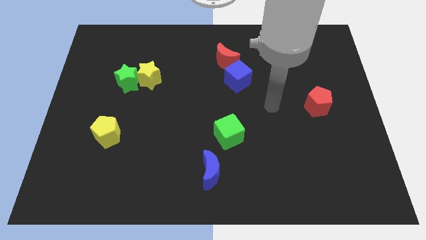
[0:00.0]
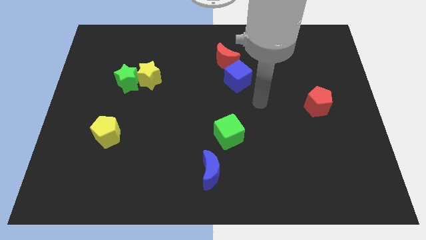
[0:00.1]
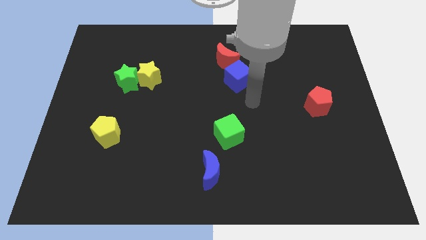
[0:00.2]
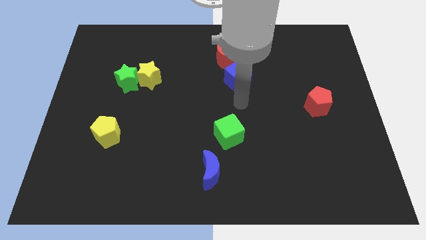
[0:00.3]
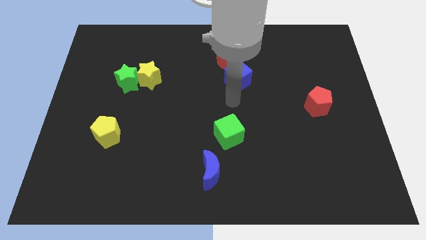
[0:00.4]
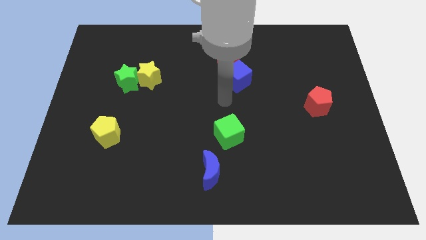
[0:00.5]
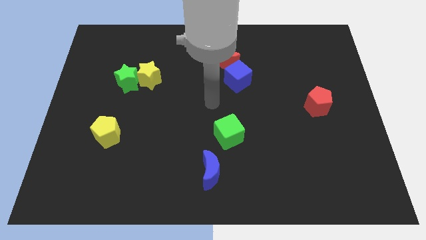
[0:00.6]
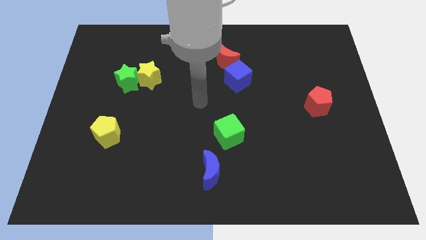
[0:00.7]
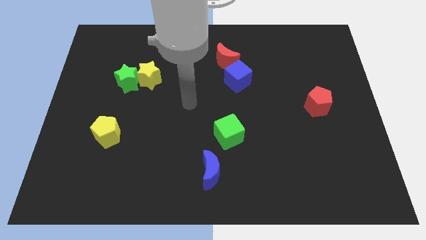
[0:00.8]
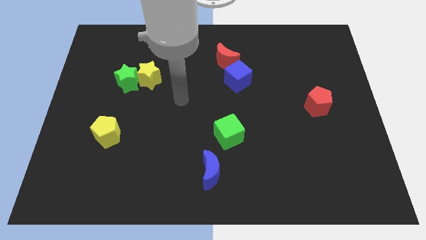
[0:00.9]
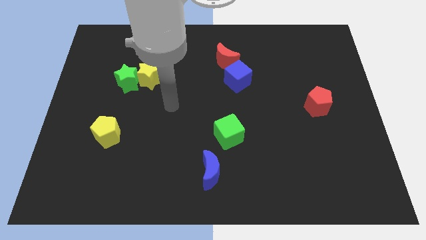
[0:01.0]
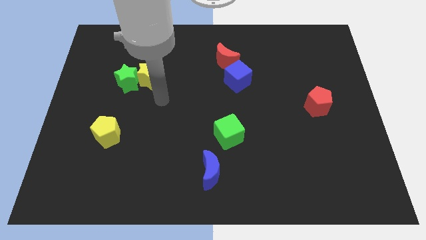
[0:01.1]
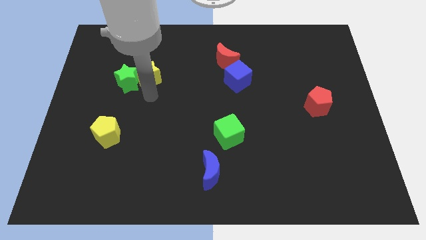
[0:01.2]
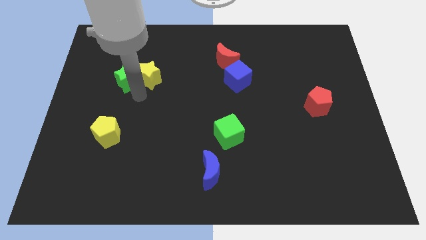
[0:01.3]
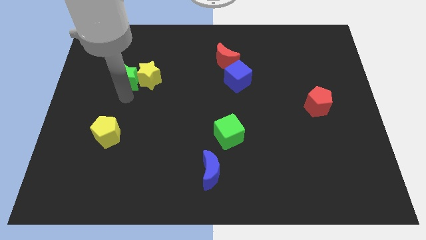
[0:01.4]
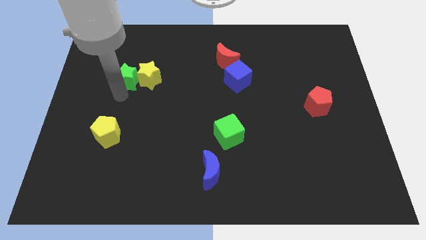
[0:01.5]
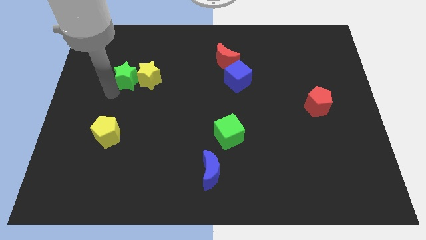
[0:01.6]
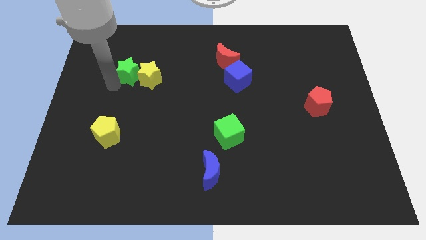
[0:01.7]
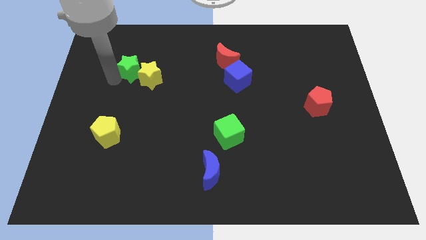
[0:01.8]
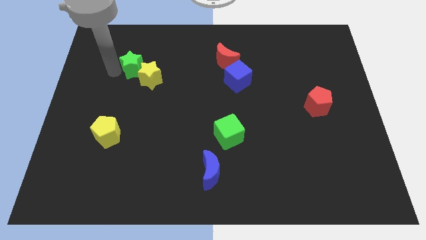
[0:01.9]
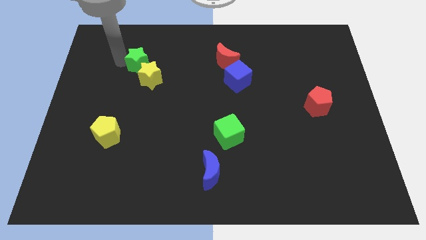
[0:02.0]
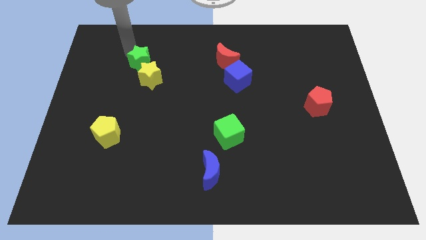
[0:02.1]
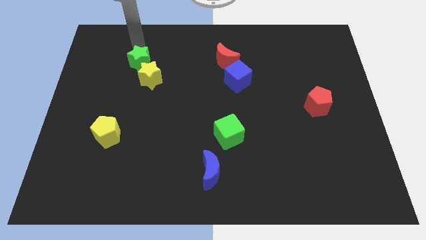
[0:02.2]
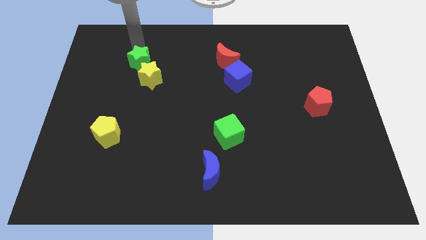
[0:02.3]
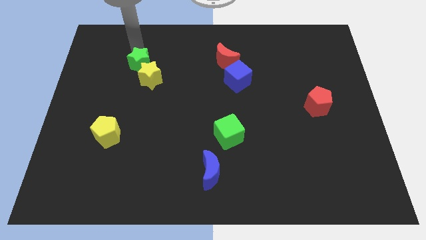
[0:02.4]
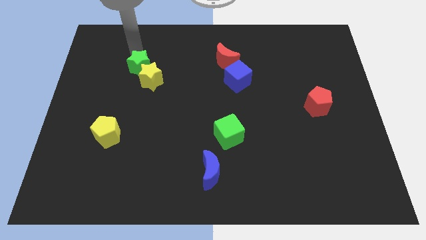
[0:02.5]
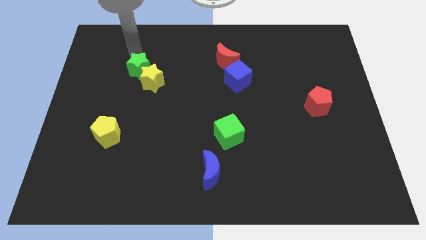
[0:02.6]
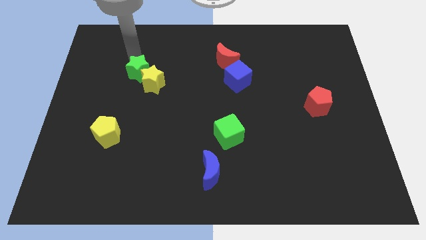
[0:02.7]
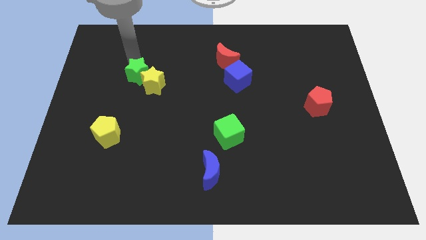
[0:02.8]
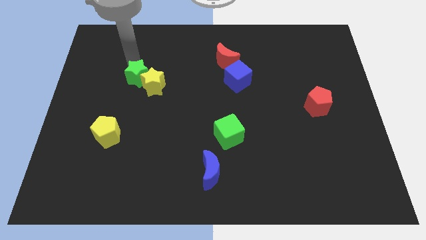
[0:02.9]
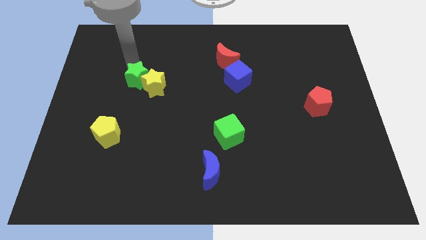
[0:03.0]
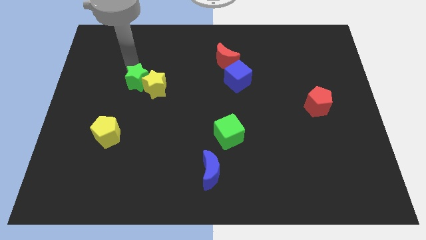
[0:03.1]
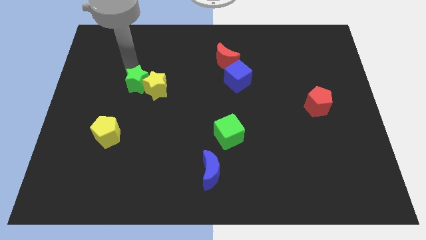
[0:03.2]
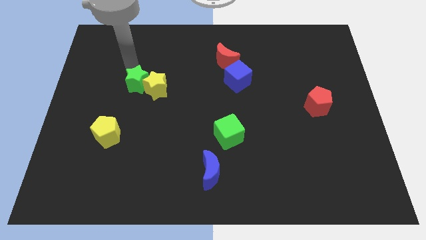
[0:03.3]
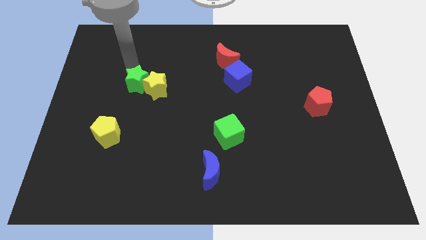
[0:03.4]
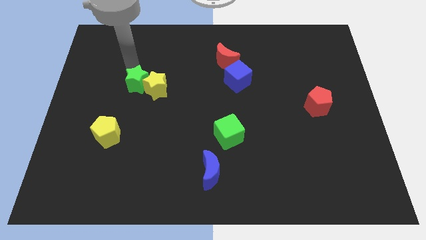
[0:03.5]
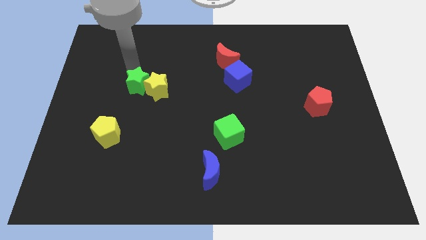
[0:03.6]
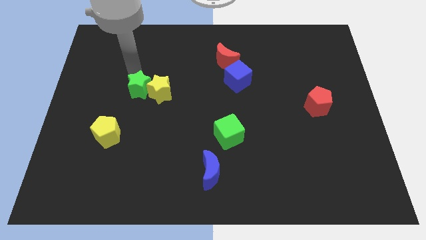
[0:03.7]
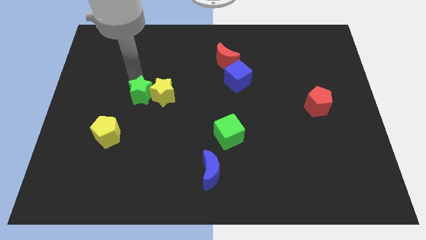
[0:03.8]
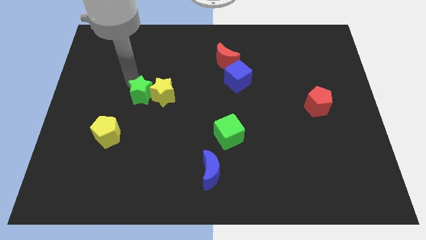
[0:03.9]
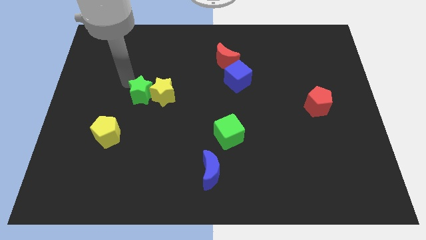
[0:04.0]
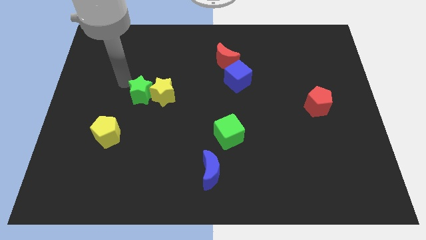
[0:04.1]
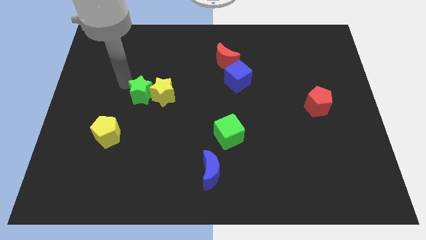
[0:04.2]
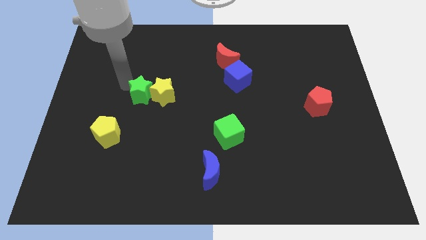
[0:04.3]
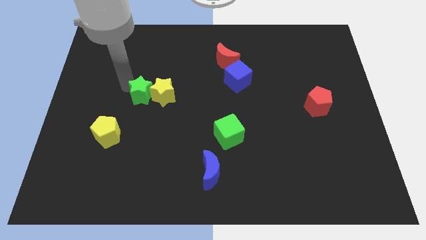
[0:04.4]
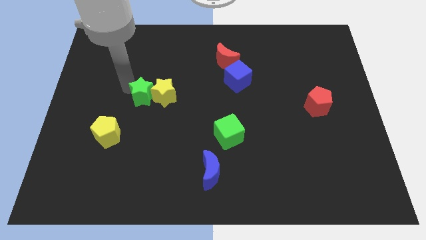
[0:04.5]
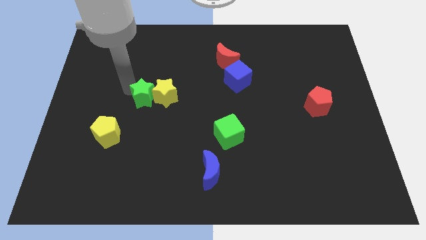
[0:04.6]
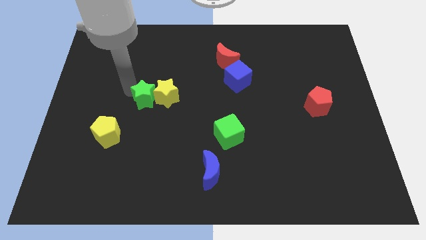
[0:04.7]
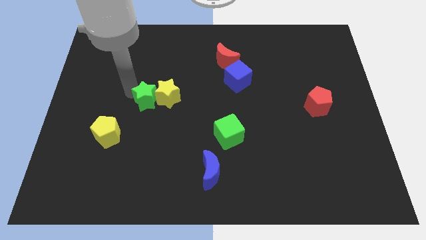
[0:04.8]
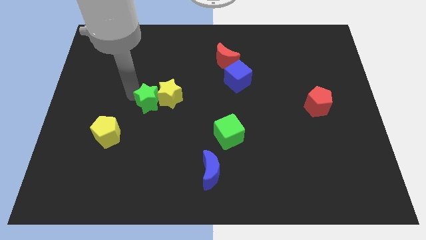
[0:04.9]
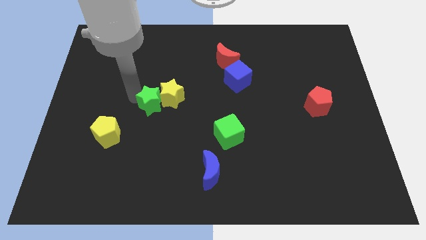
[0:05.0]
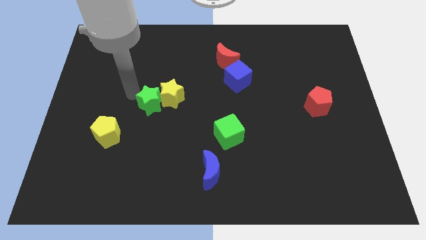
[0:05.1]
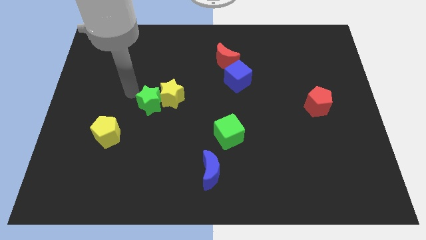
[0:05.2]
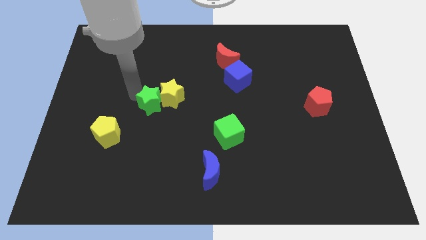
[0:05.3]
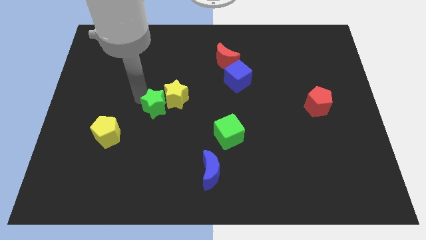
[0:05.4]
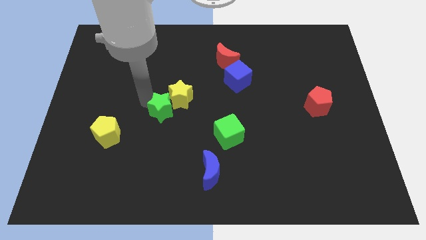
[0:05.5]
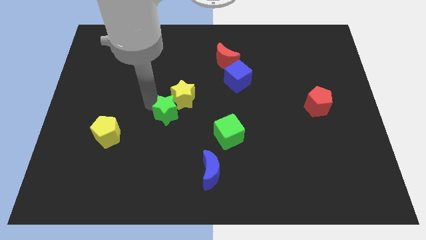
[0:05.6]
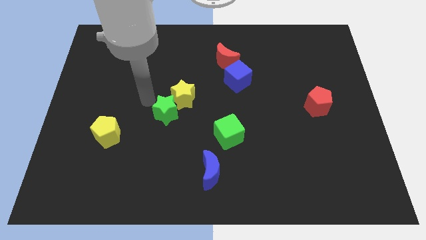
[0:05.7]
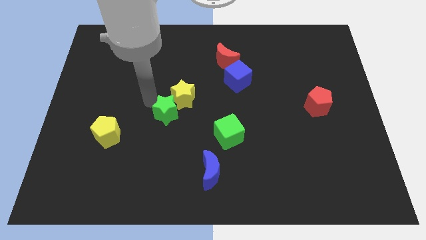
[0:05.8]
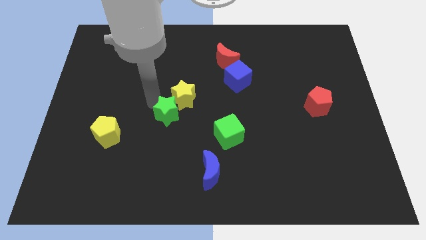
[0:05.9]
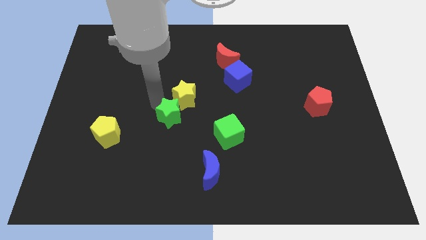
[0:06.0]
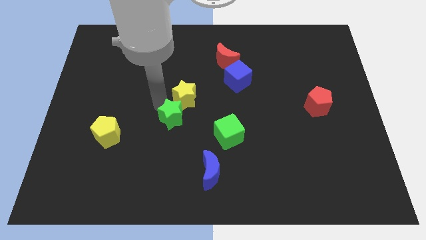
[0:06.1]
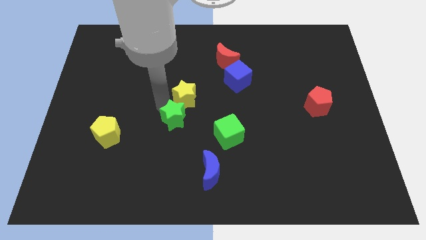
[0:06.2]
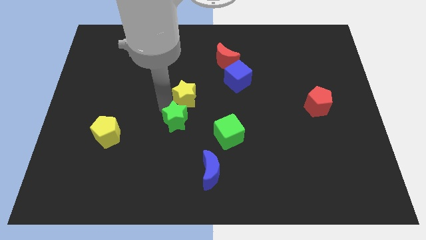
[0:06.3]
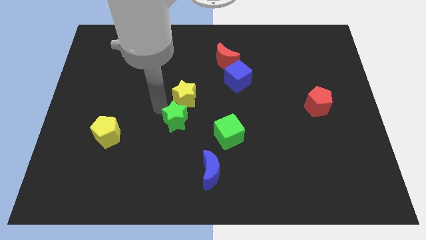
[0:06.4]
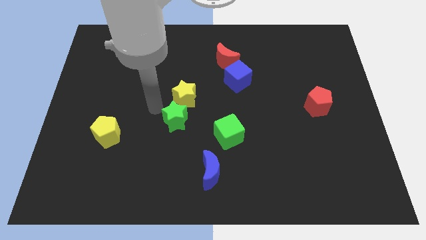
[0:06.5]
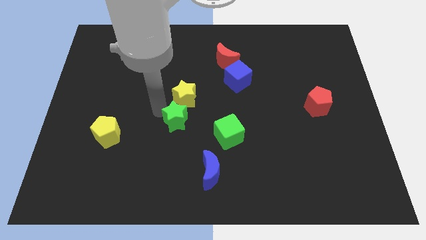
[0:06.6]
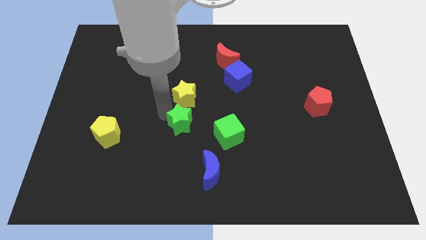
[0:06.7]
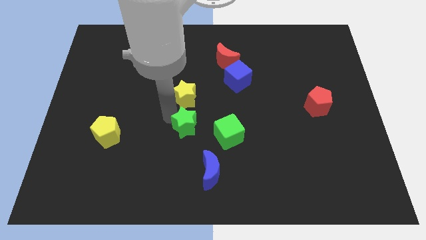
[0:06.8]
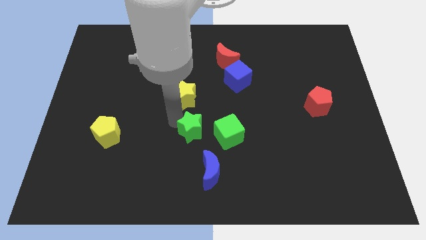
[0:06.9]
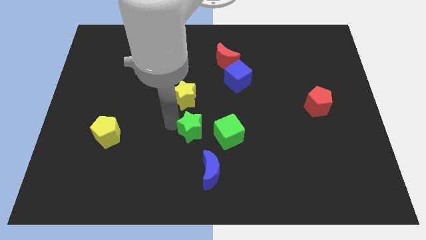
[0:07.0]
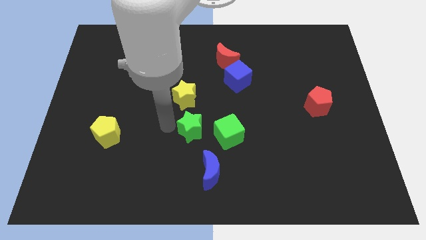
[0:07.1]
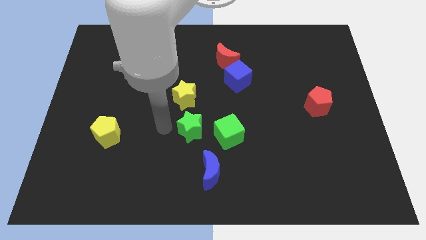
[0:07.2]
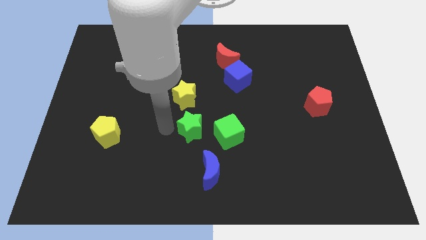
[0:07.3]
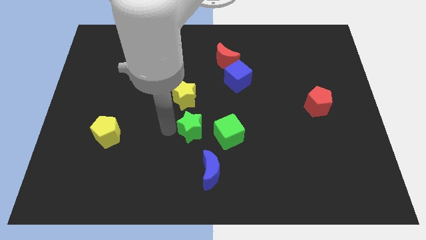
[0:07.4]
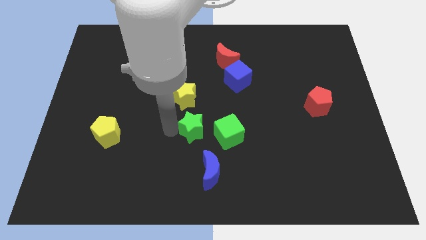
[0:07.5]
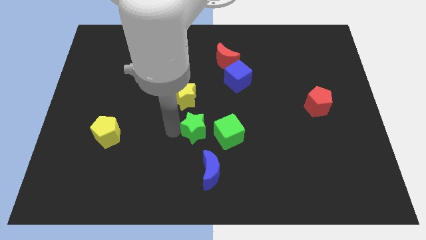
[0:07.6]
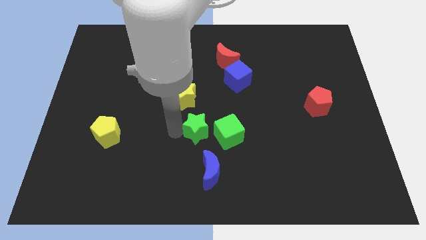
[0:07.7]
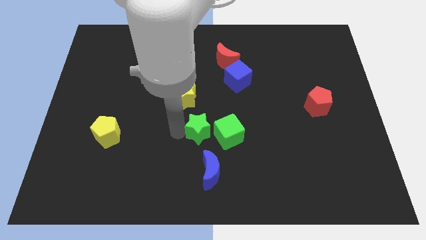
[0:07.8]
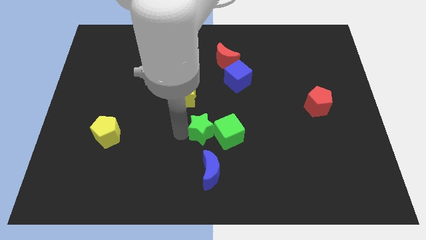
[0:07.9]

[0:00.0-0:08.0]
slide the green star next to the green cube

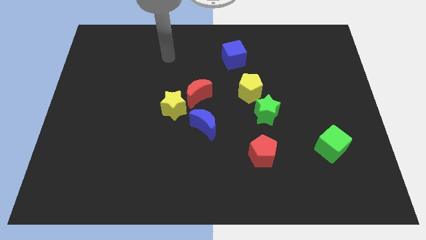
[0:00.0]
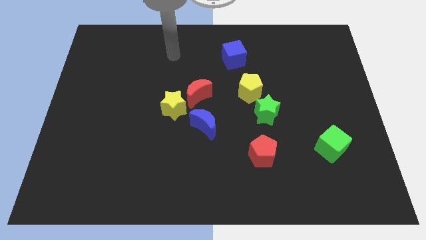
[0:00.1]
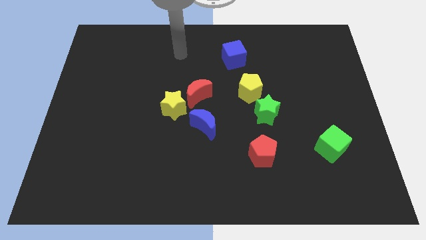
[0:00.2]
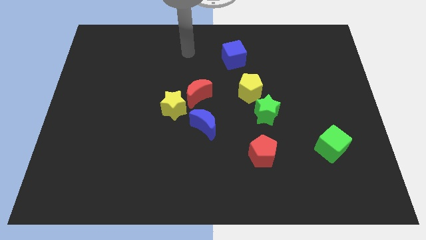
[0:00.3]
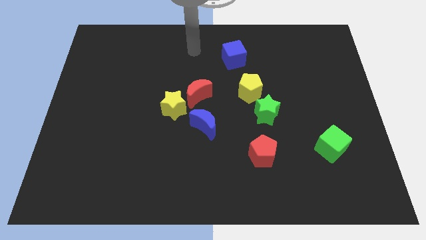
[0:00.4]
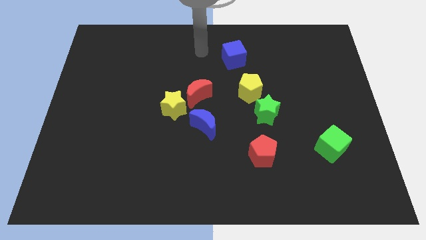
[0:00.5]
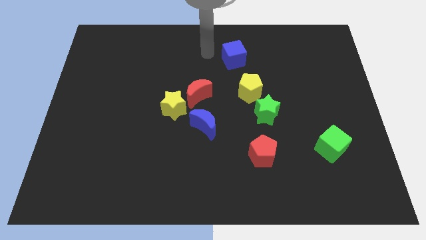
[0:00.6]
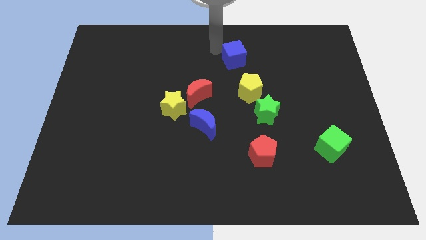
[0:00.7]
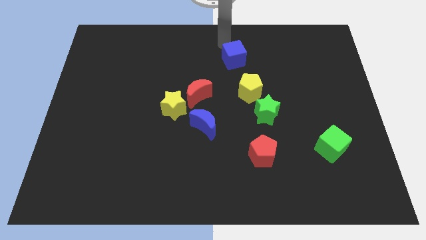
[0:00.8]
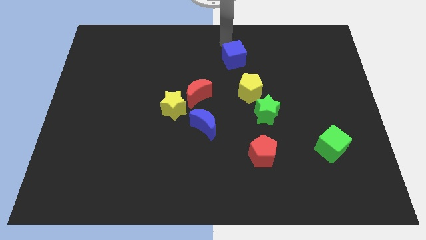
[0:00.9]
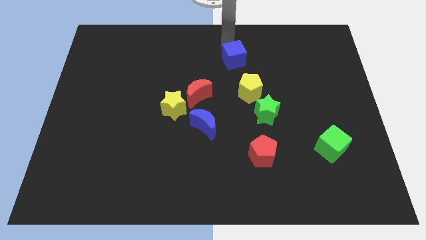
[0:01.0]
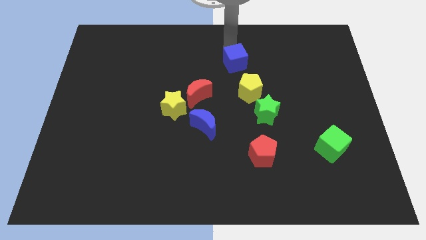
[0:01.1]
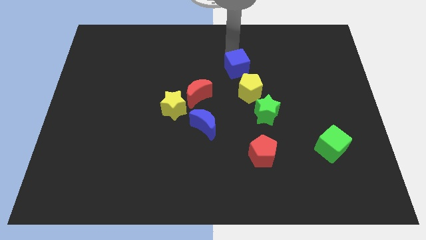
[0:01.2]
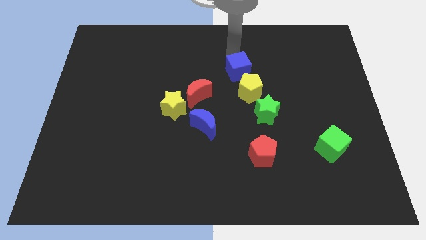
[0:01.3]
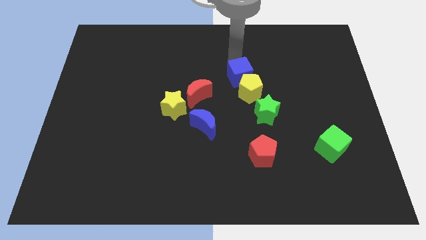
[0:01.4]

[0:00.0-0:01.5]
move the blue cube next to the yellow pentagon
